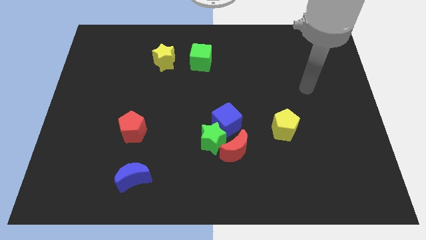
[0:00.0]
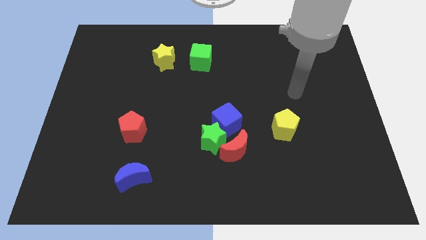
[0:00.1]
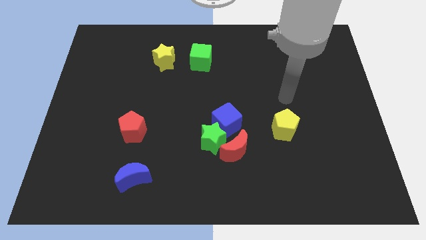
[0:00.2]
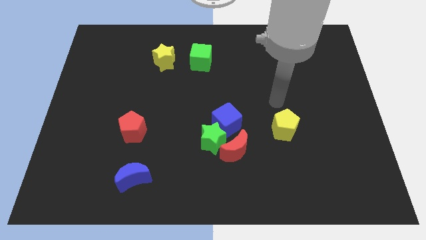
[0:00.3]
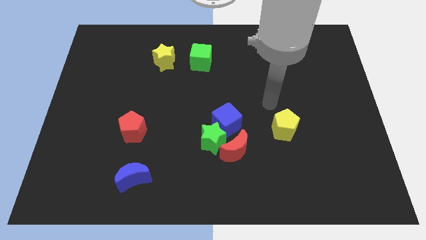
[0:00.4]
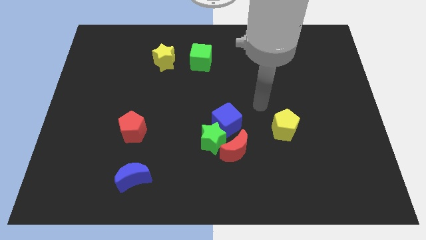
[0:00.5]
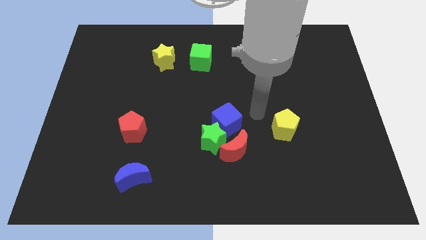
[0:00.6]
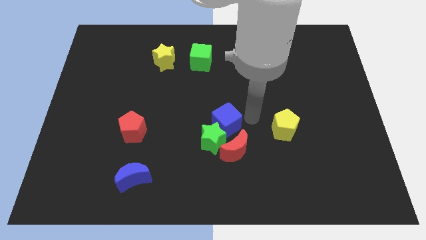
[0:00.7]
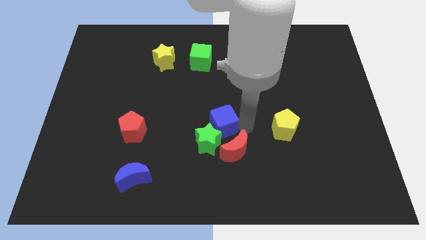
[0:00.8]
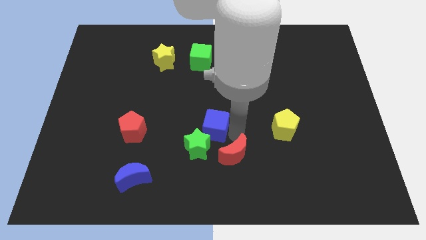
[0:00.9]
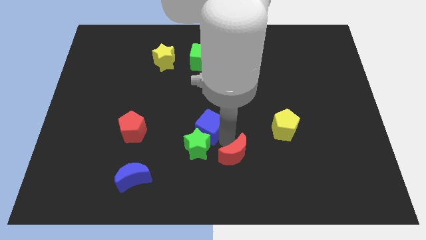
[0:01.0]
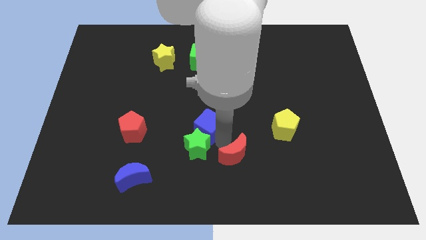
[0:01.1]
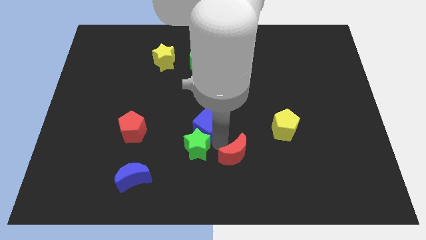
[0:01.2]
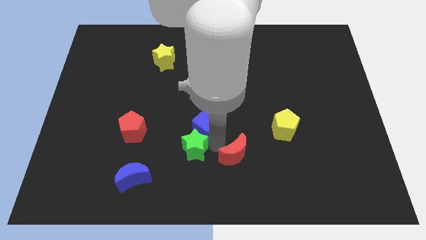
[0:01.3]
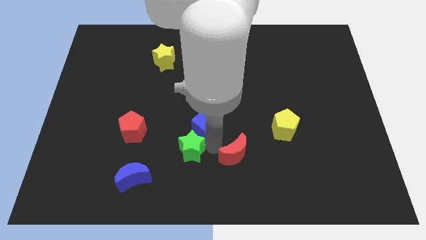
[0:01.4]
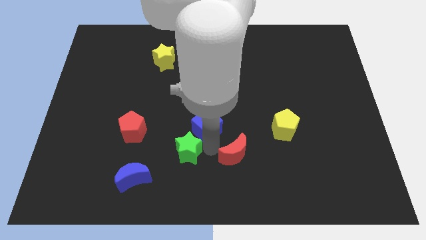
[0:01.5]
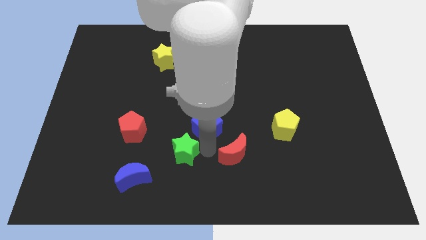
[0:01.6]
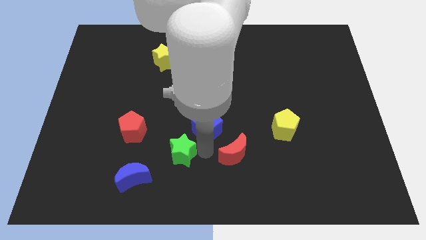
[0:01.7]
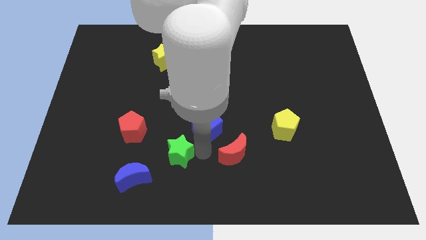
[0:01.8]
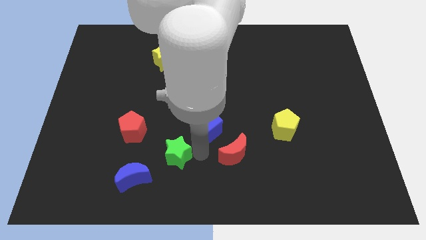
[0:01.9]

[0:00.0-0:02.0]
move the green star away from the red moon and blue cube

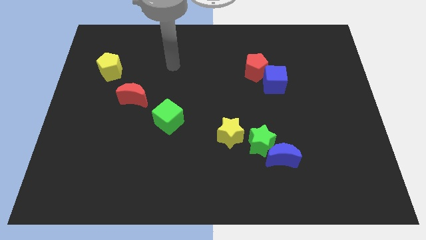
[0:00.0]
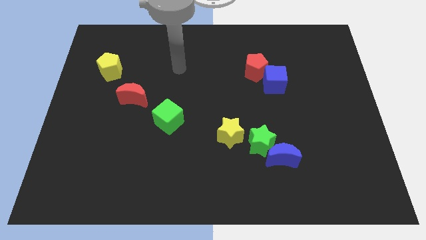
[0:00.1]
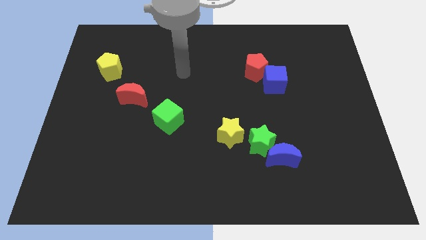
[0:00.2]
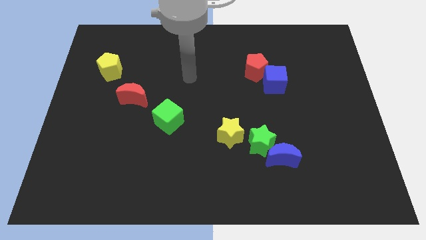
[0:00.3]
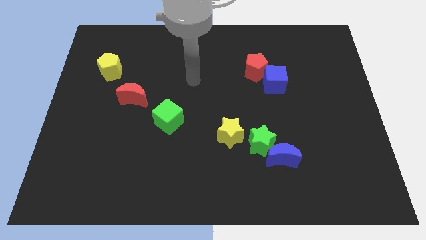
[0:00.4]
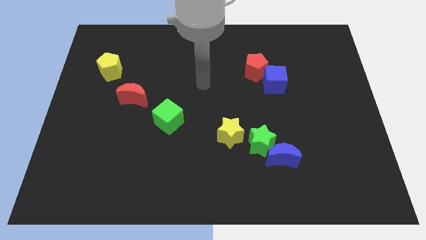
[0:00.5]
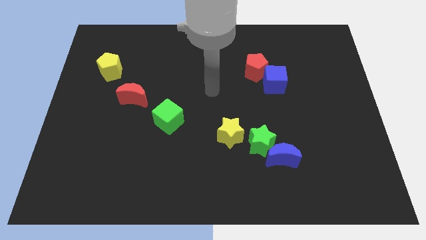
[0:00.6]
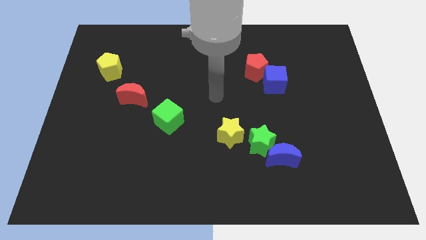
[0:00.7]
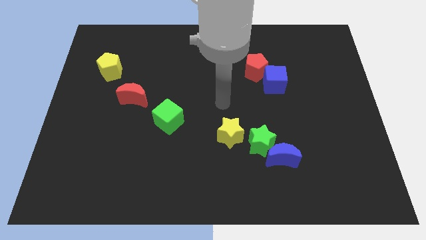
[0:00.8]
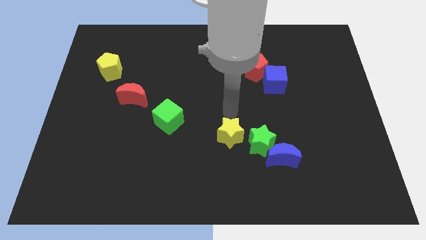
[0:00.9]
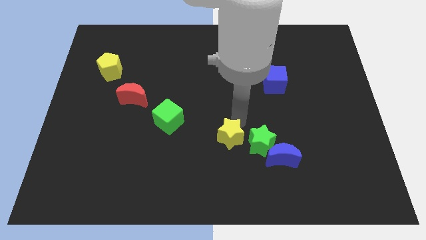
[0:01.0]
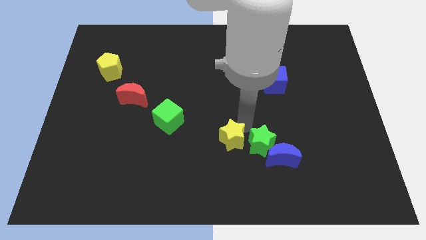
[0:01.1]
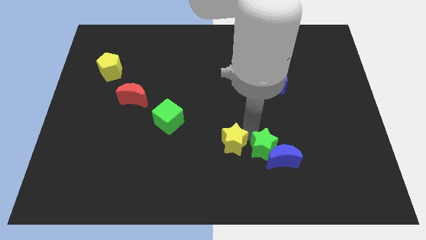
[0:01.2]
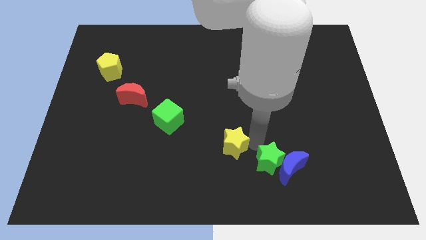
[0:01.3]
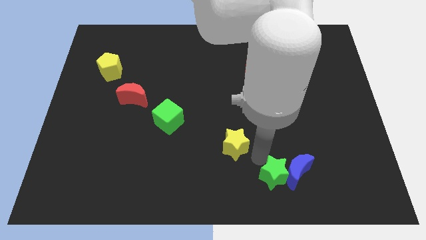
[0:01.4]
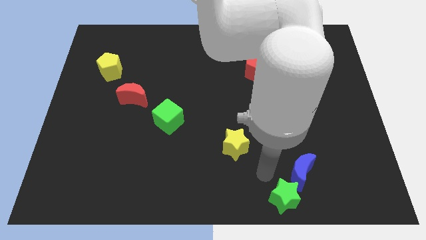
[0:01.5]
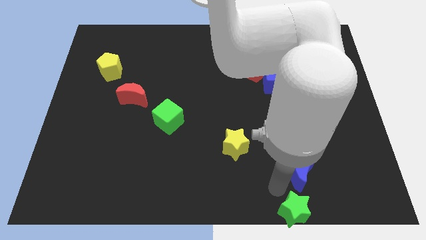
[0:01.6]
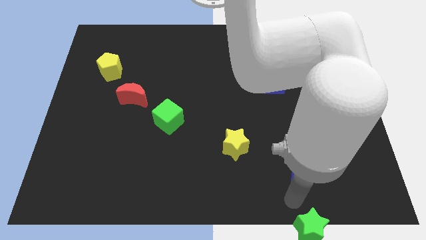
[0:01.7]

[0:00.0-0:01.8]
move the blue moon away from the green star

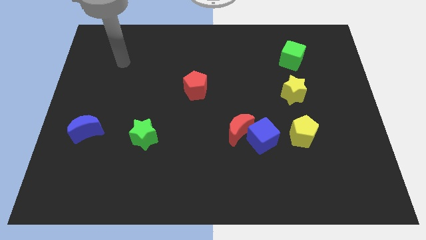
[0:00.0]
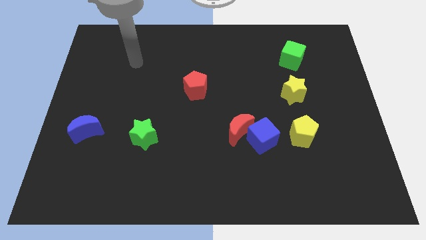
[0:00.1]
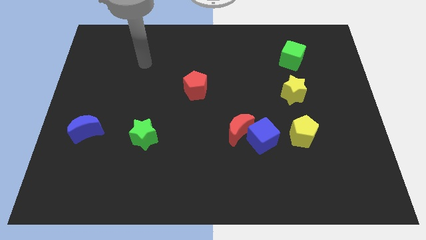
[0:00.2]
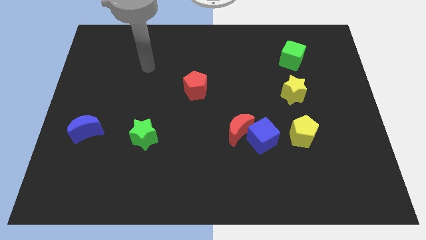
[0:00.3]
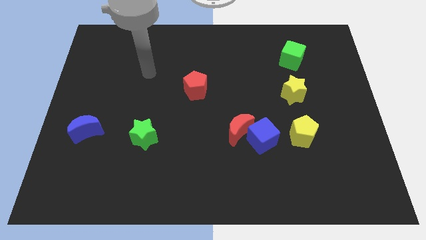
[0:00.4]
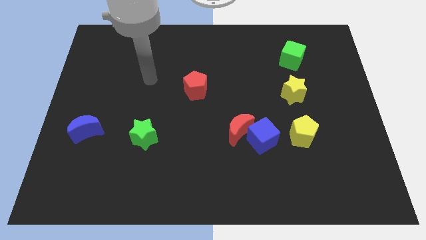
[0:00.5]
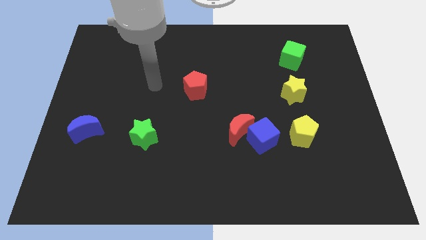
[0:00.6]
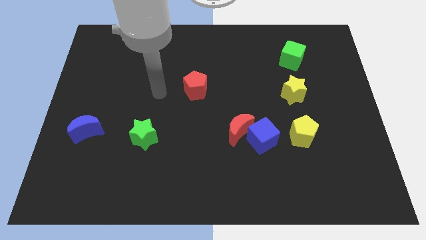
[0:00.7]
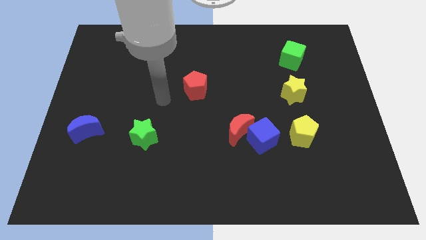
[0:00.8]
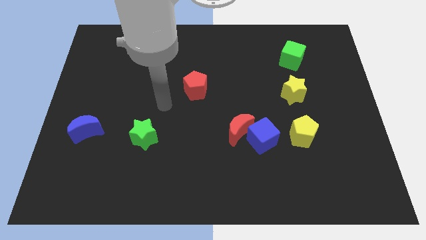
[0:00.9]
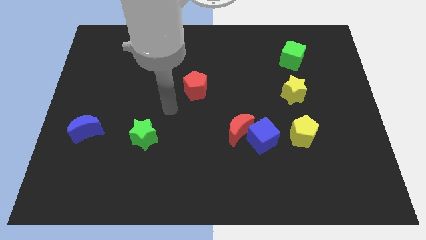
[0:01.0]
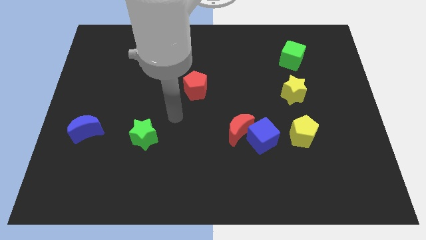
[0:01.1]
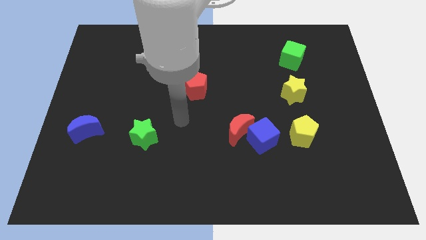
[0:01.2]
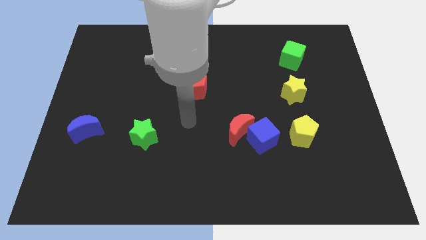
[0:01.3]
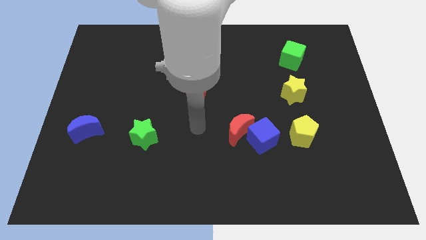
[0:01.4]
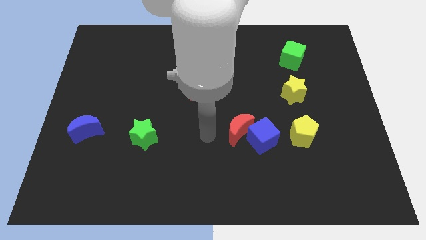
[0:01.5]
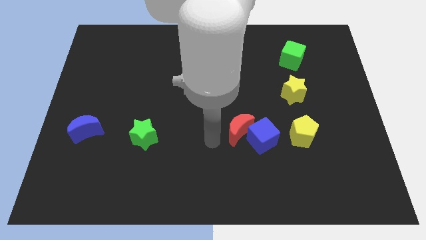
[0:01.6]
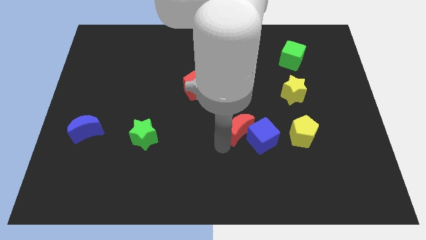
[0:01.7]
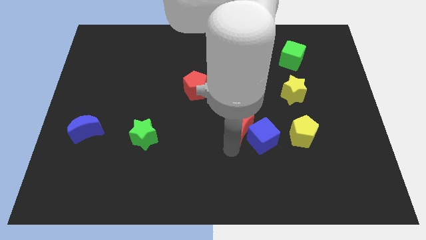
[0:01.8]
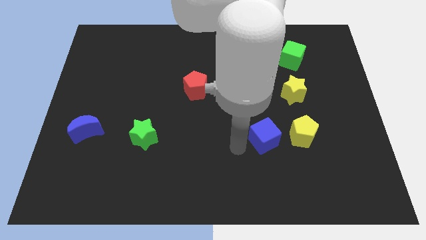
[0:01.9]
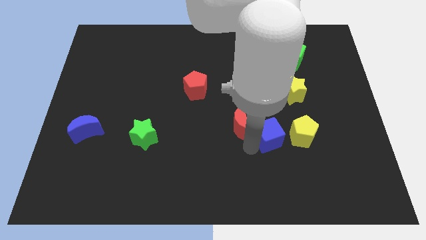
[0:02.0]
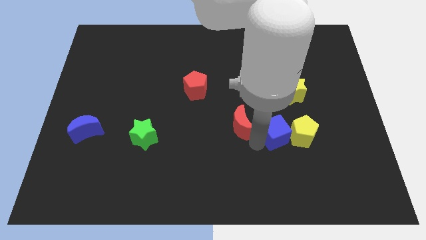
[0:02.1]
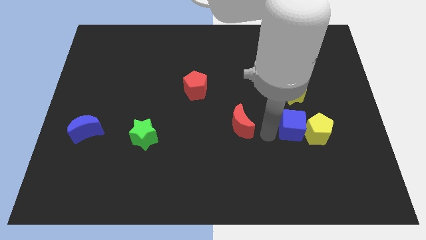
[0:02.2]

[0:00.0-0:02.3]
pull the red moon apart from the blue cube

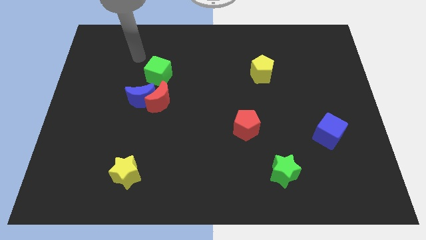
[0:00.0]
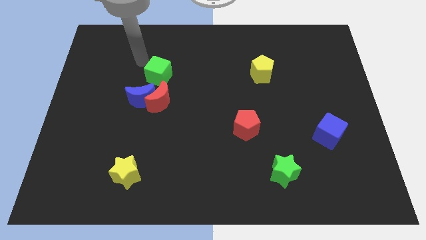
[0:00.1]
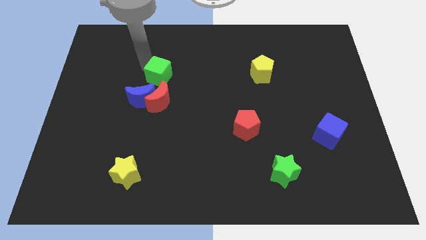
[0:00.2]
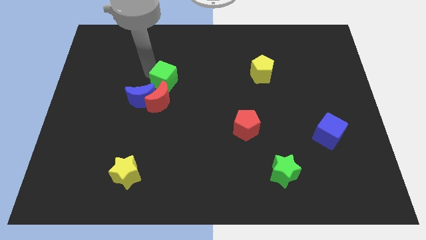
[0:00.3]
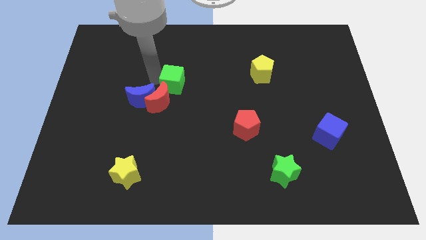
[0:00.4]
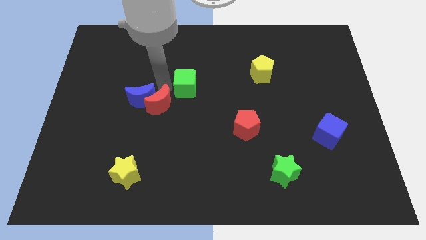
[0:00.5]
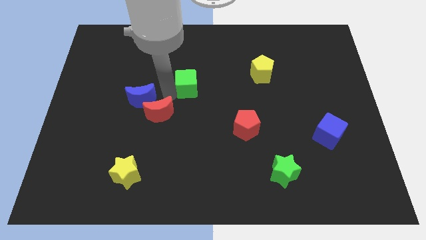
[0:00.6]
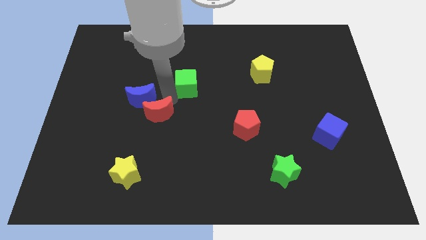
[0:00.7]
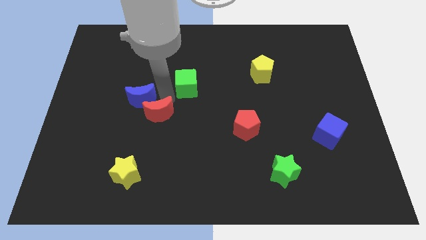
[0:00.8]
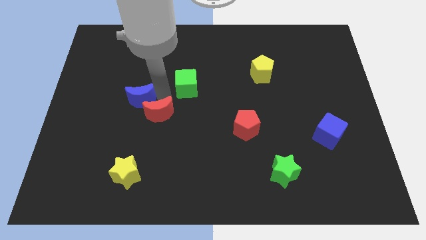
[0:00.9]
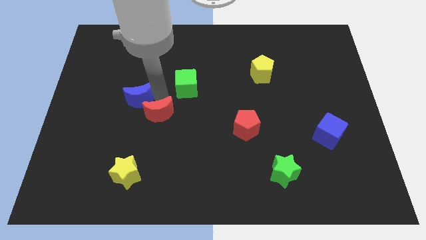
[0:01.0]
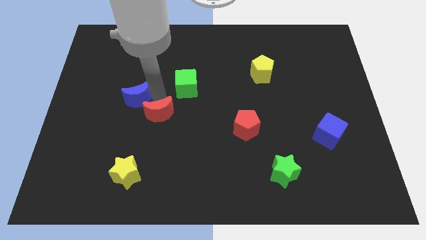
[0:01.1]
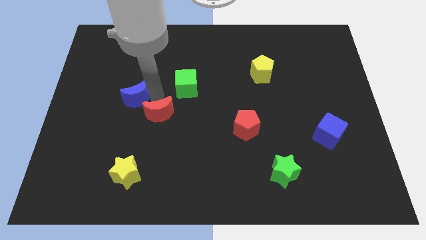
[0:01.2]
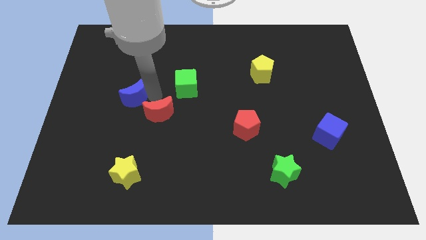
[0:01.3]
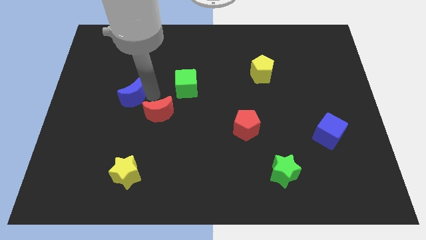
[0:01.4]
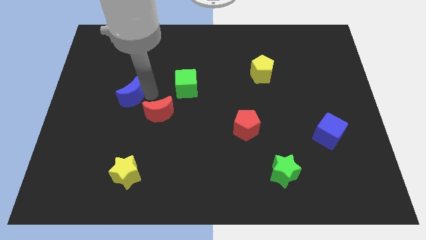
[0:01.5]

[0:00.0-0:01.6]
pull the blue moon apart from the red moon and green cube

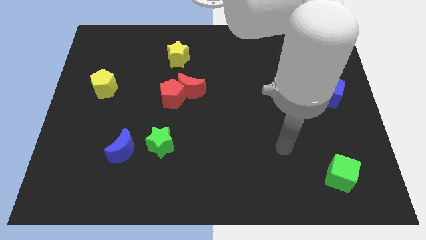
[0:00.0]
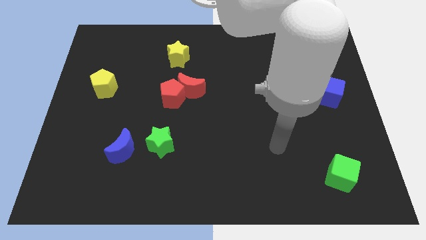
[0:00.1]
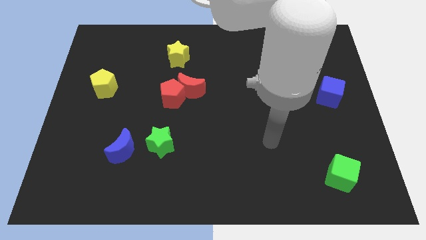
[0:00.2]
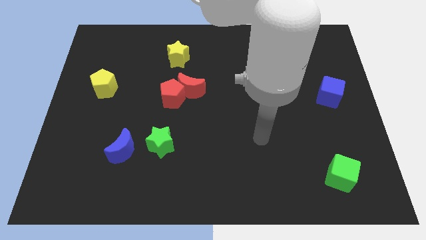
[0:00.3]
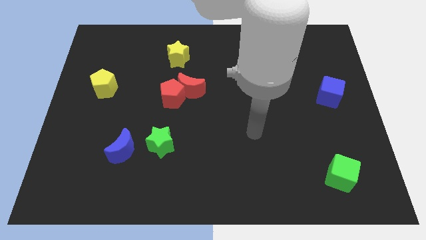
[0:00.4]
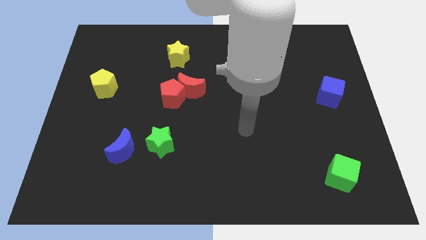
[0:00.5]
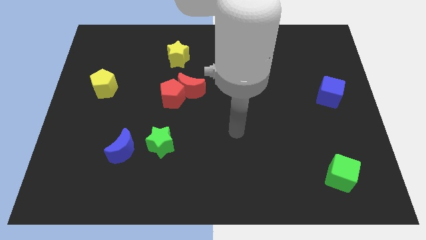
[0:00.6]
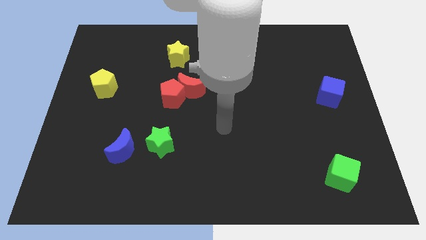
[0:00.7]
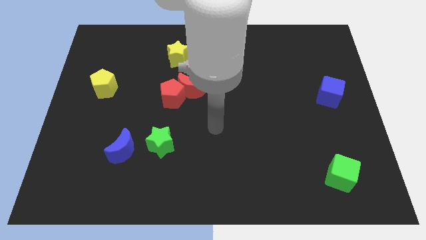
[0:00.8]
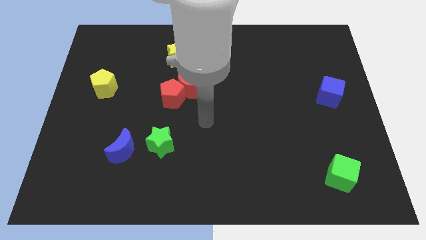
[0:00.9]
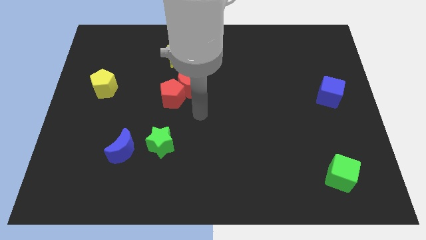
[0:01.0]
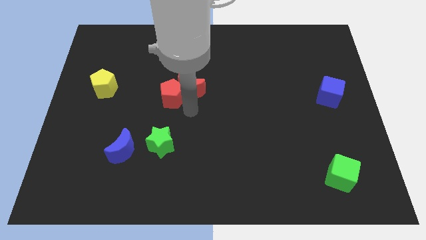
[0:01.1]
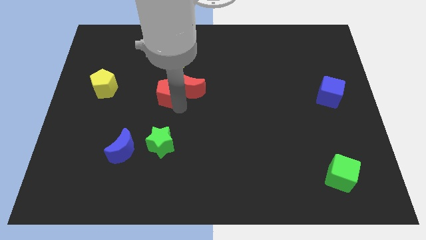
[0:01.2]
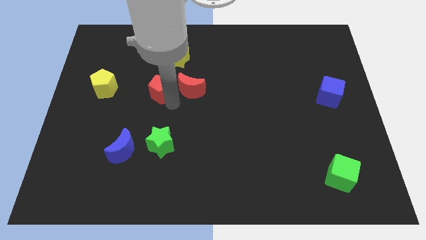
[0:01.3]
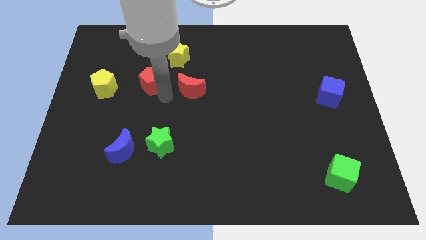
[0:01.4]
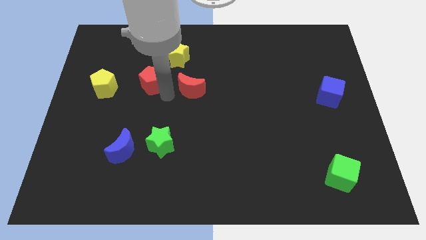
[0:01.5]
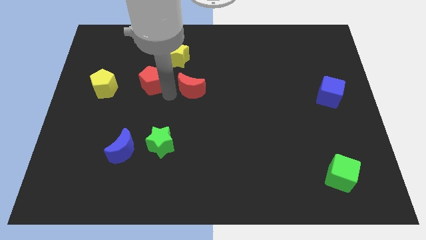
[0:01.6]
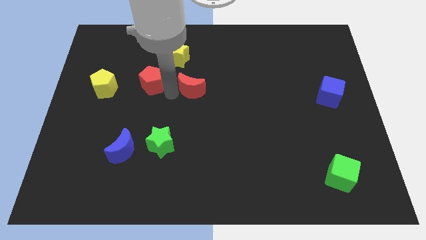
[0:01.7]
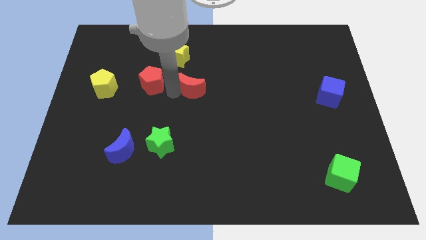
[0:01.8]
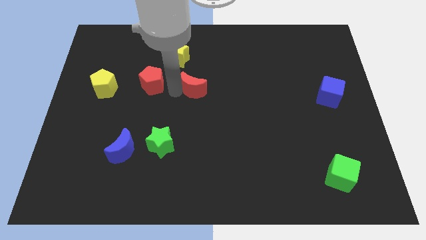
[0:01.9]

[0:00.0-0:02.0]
move the red moon away from the red pentagon
